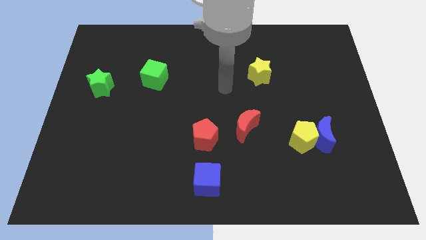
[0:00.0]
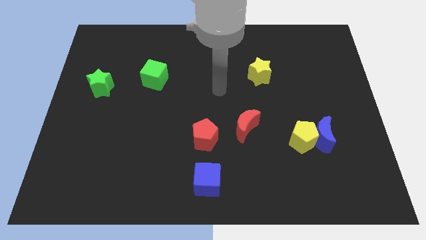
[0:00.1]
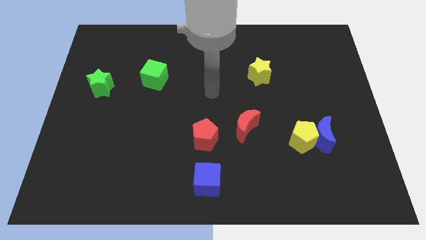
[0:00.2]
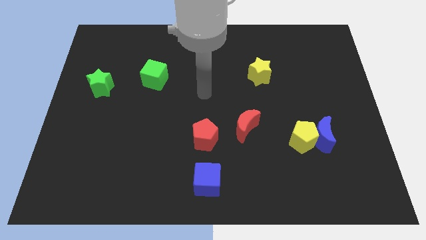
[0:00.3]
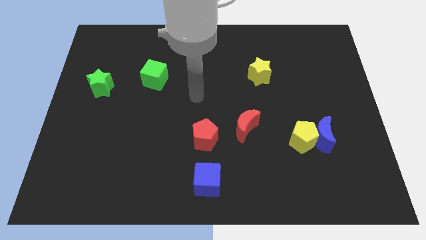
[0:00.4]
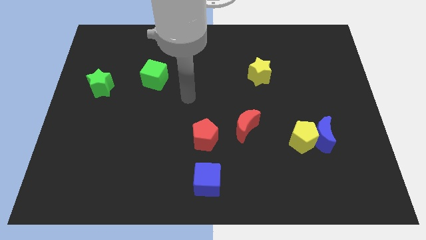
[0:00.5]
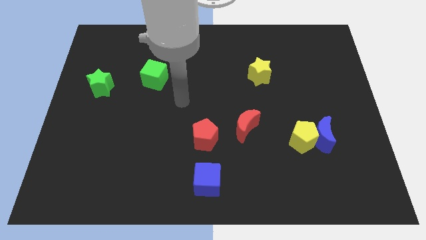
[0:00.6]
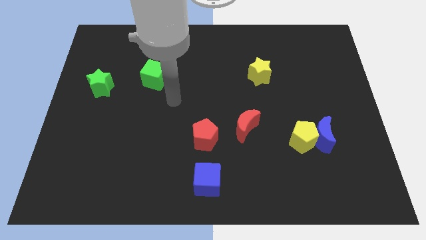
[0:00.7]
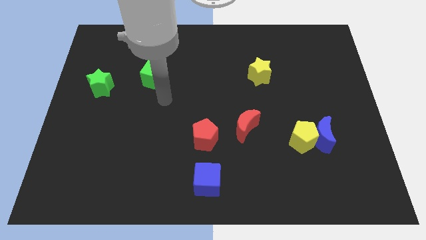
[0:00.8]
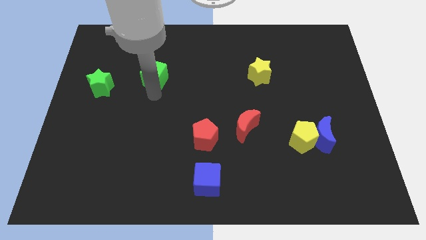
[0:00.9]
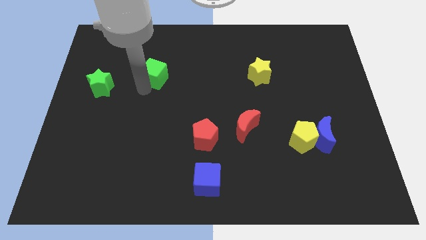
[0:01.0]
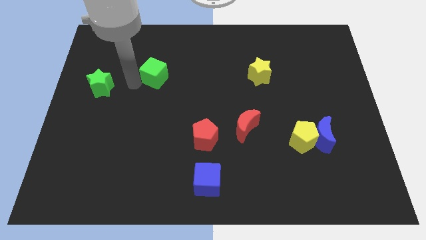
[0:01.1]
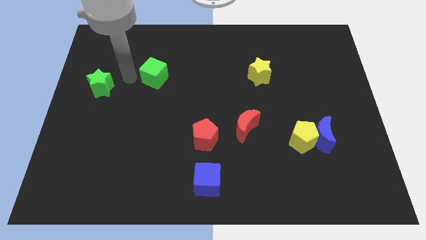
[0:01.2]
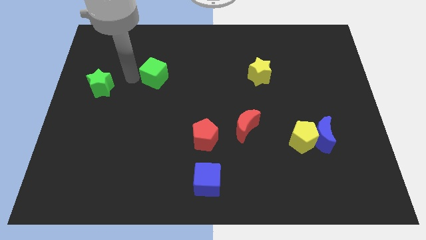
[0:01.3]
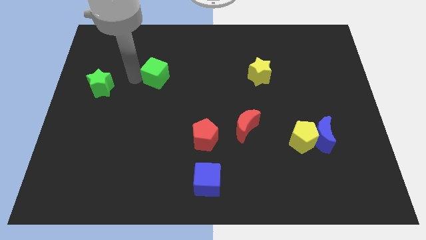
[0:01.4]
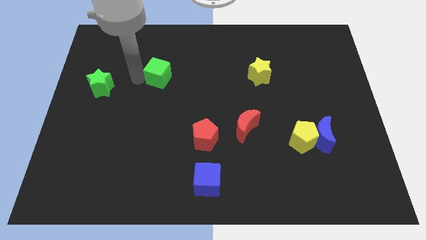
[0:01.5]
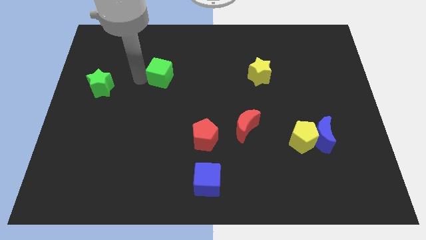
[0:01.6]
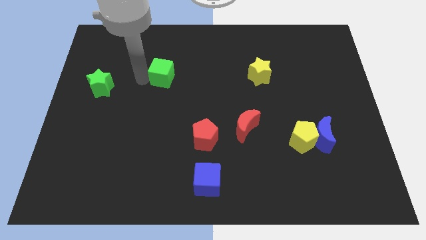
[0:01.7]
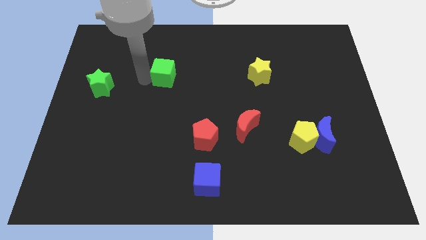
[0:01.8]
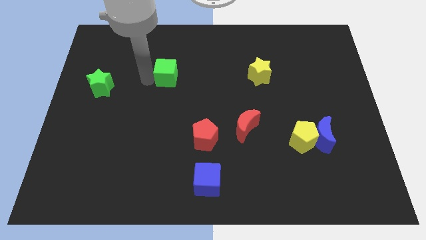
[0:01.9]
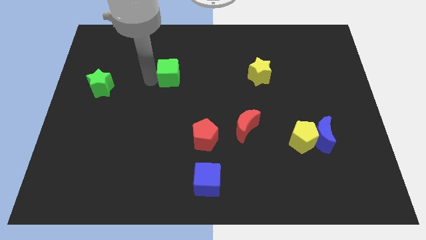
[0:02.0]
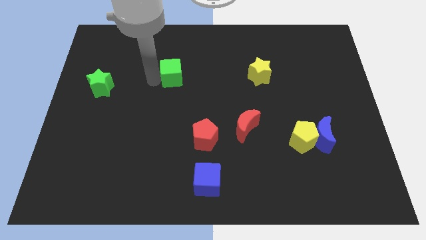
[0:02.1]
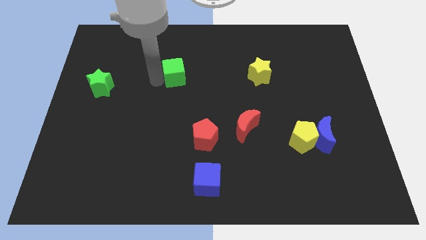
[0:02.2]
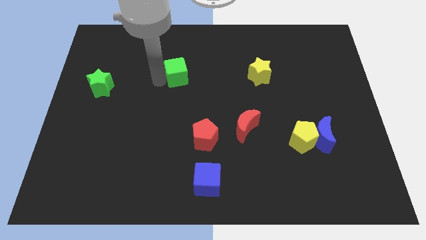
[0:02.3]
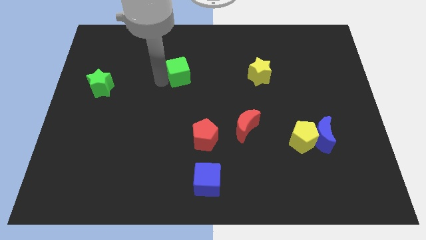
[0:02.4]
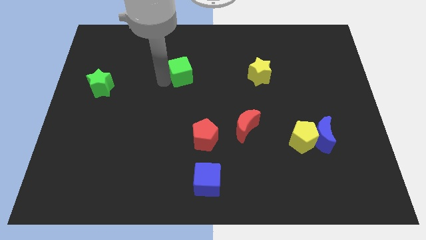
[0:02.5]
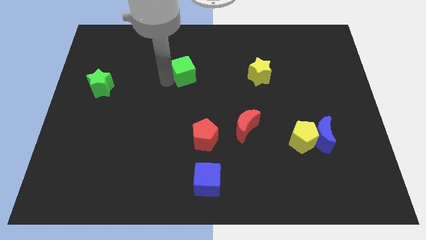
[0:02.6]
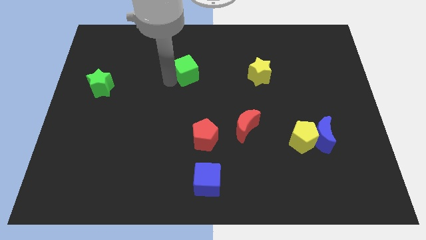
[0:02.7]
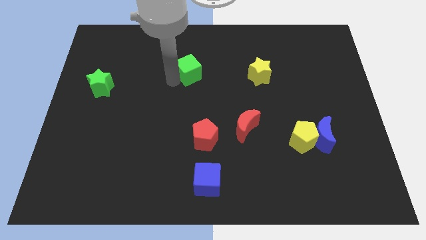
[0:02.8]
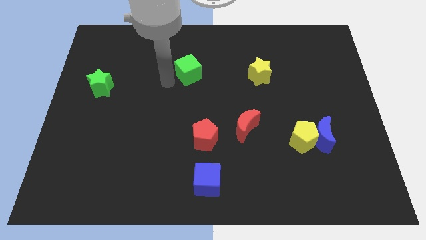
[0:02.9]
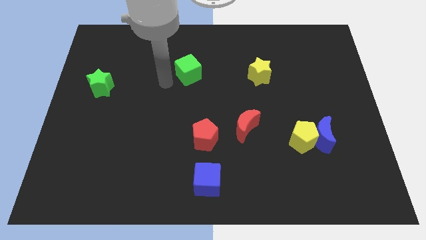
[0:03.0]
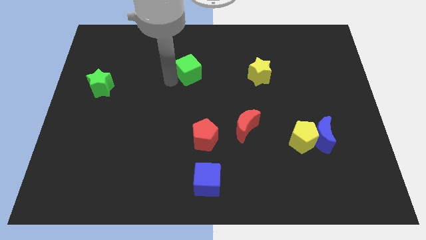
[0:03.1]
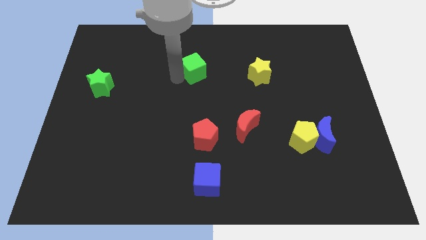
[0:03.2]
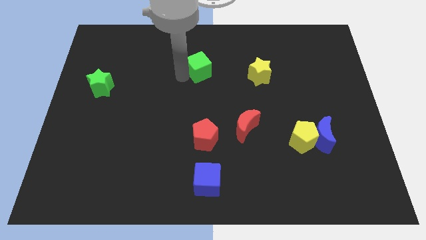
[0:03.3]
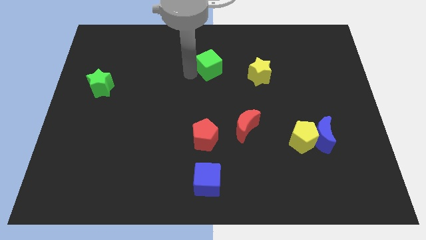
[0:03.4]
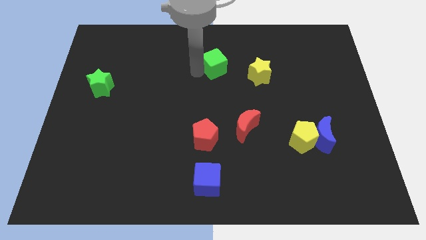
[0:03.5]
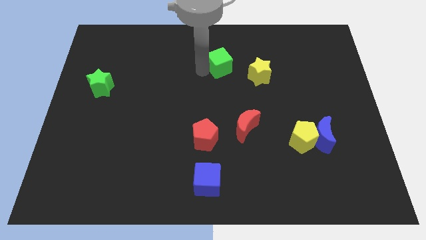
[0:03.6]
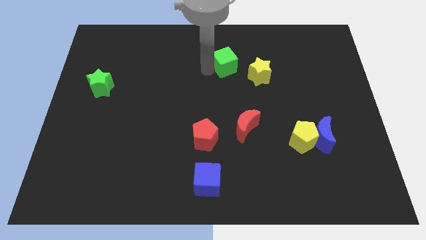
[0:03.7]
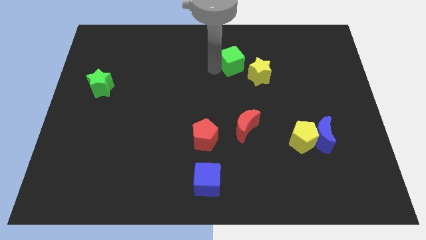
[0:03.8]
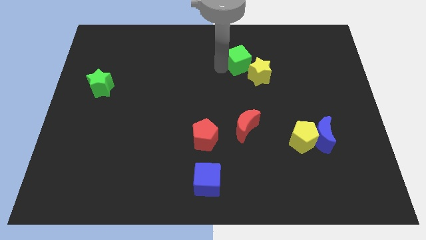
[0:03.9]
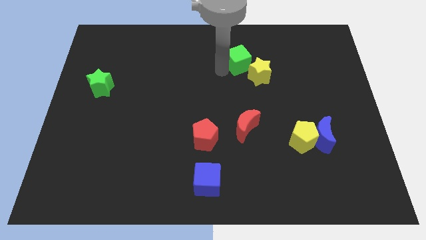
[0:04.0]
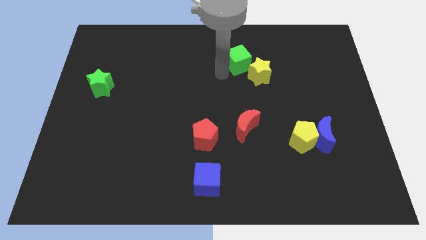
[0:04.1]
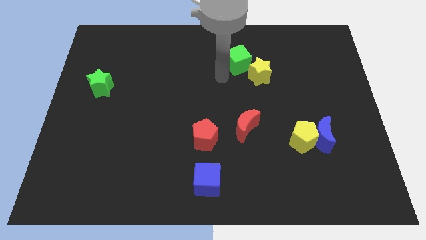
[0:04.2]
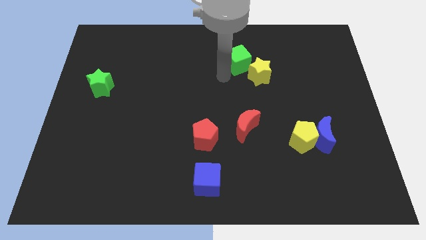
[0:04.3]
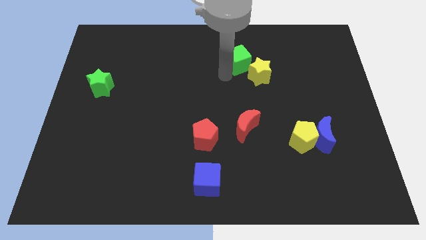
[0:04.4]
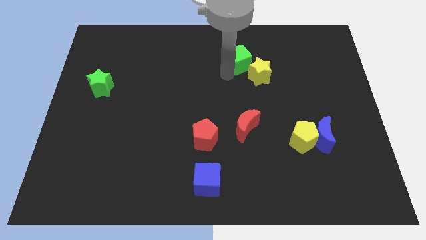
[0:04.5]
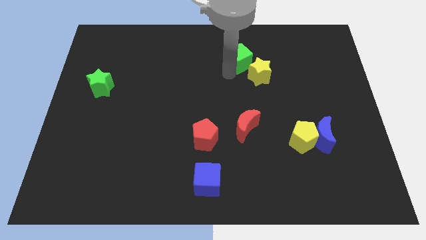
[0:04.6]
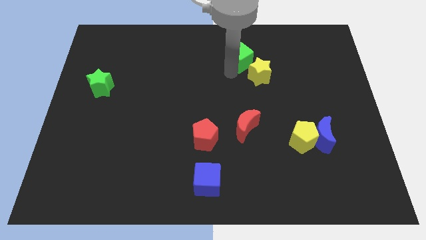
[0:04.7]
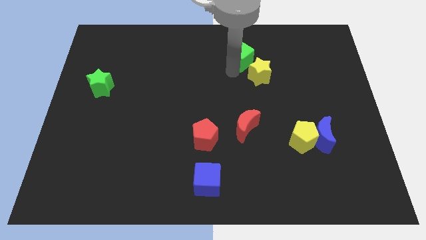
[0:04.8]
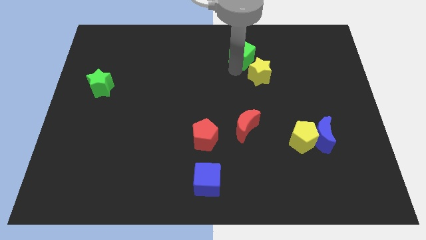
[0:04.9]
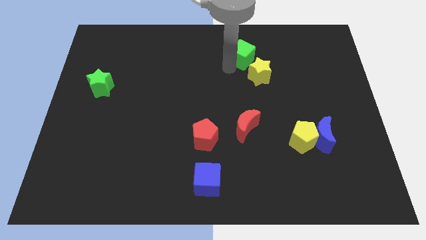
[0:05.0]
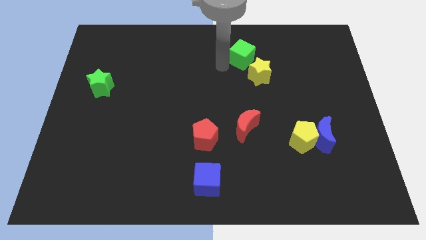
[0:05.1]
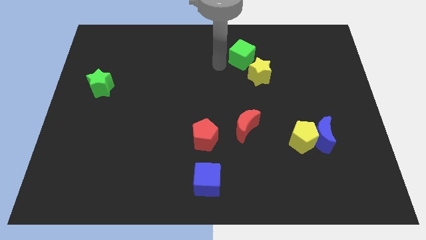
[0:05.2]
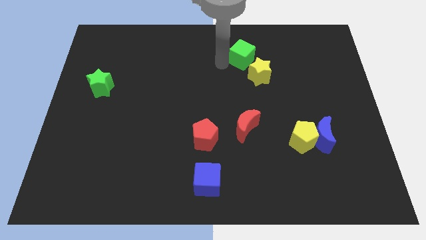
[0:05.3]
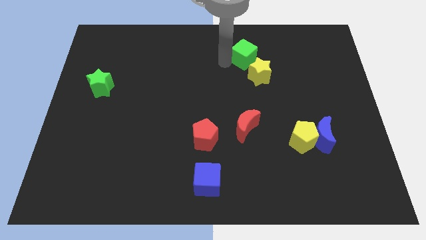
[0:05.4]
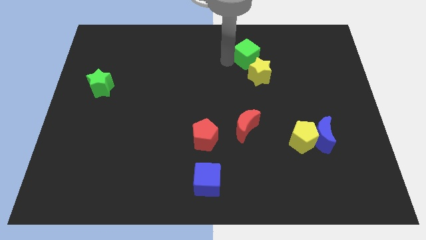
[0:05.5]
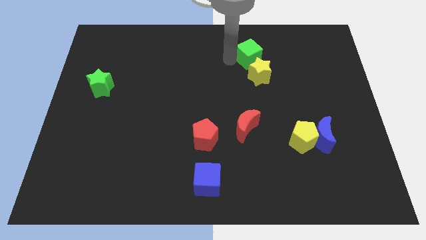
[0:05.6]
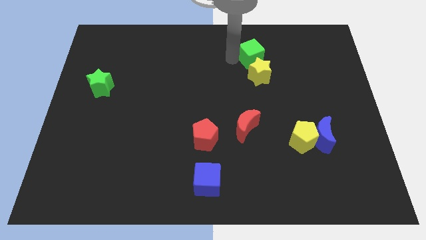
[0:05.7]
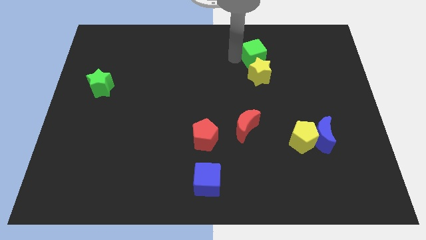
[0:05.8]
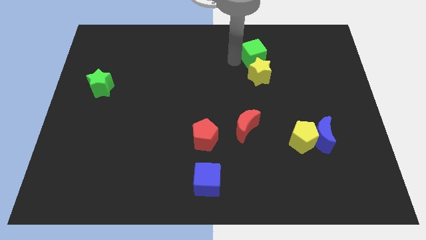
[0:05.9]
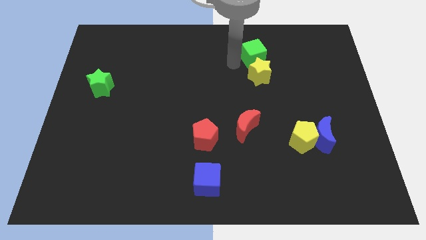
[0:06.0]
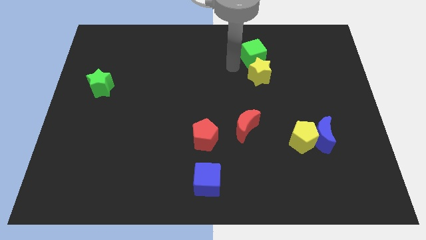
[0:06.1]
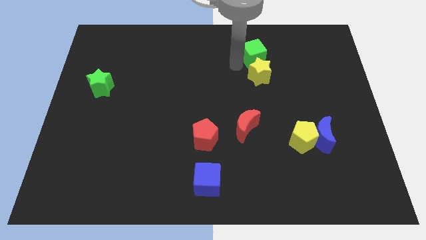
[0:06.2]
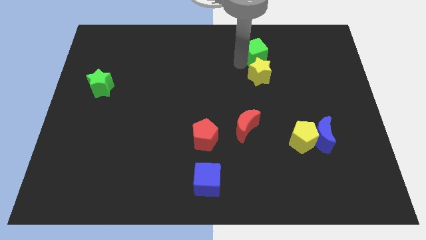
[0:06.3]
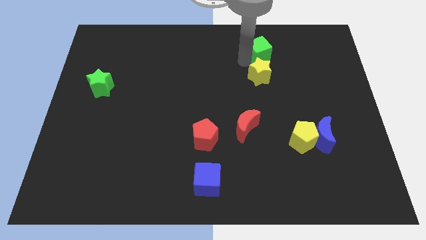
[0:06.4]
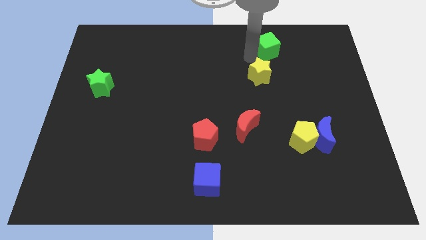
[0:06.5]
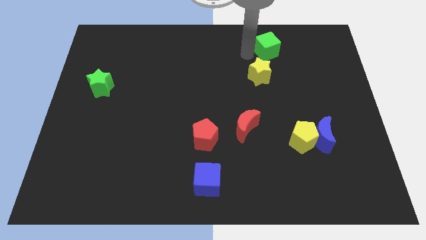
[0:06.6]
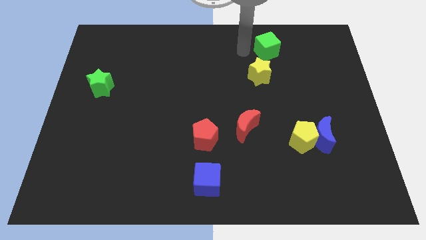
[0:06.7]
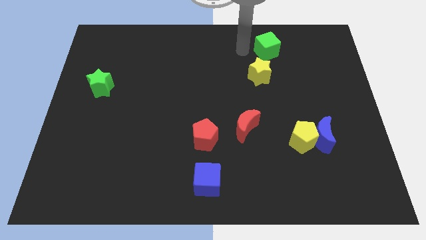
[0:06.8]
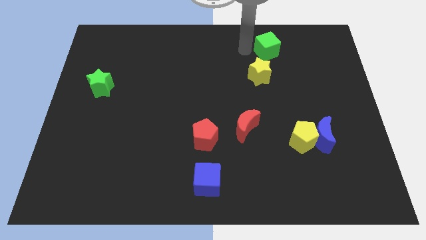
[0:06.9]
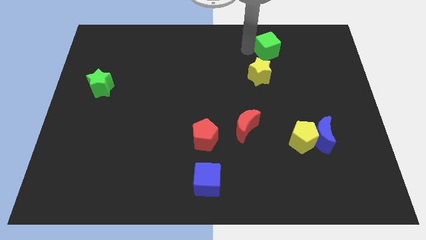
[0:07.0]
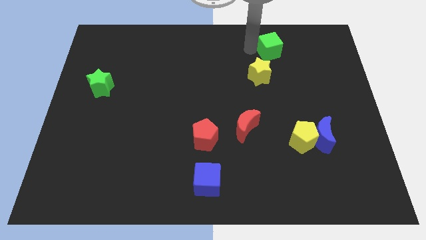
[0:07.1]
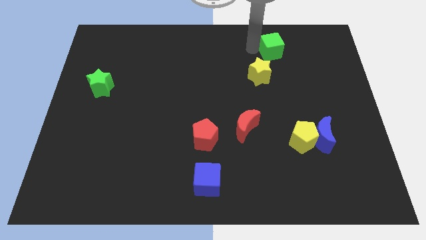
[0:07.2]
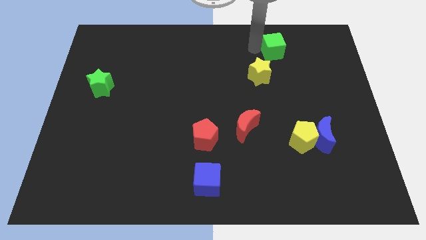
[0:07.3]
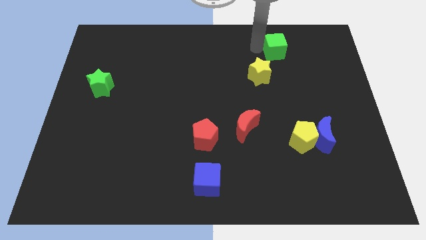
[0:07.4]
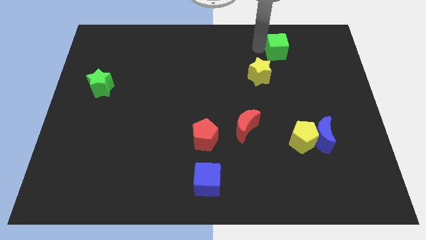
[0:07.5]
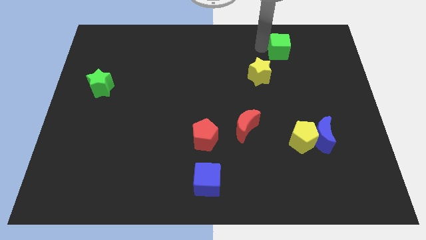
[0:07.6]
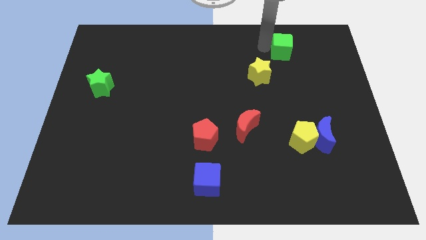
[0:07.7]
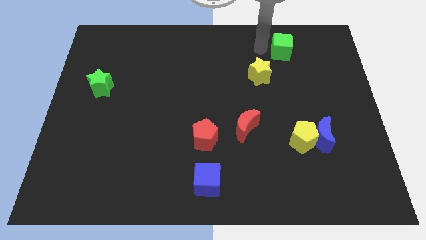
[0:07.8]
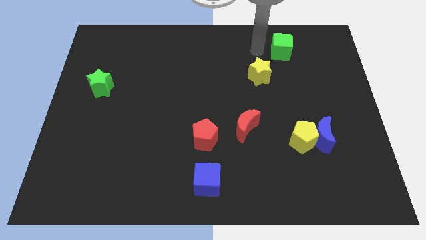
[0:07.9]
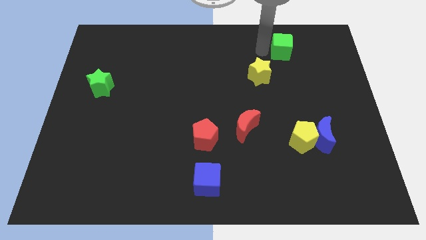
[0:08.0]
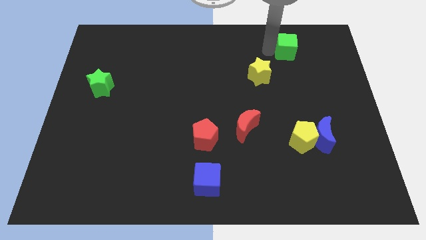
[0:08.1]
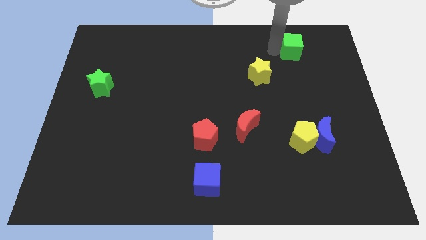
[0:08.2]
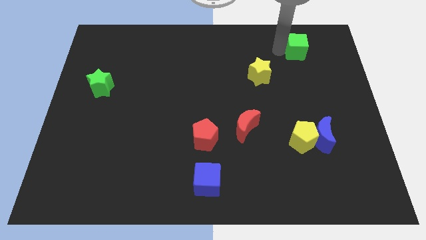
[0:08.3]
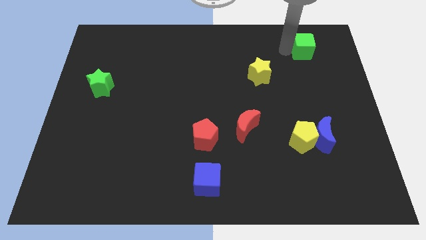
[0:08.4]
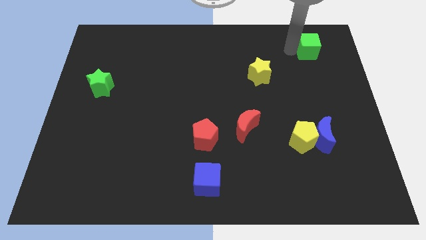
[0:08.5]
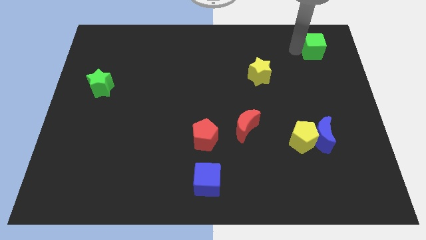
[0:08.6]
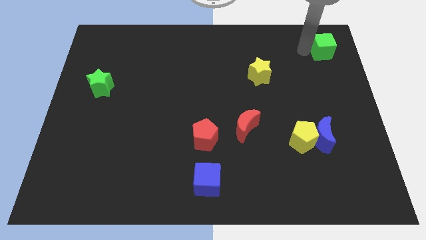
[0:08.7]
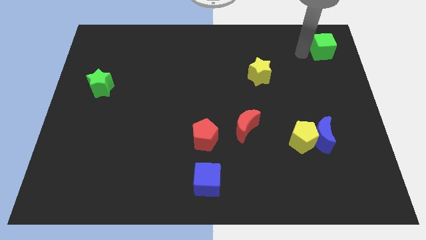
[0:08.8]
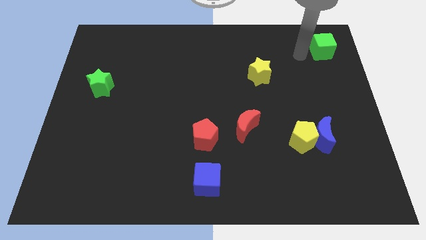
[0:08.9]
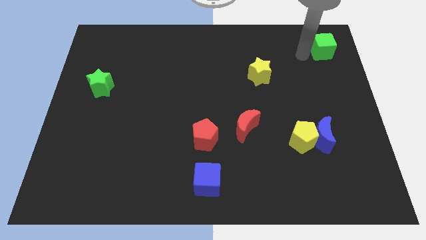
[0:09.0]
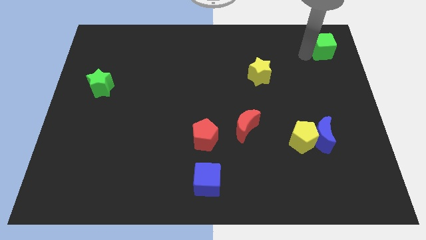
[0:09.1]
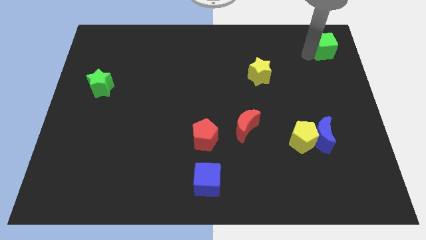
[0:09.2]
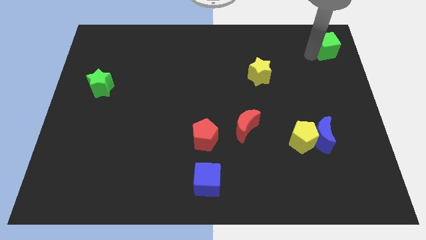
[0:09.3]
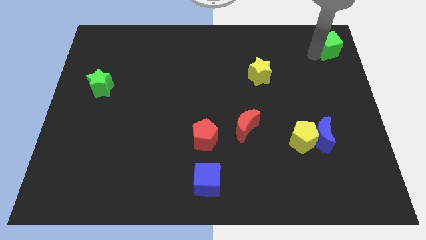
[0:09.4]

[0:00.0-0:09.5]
slide the green cube to the top right corner
